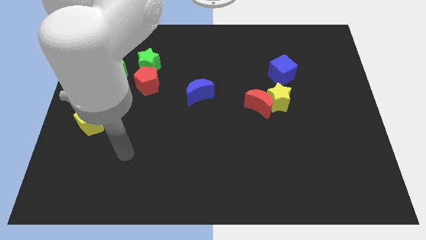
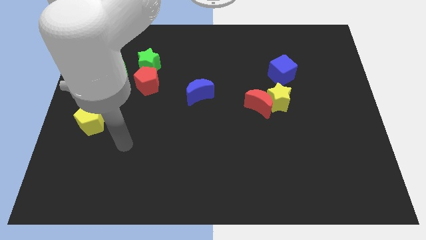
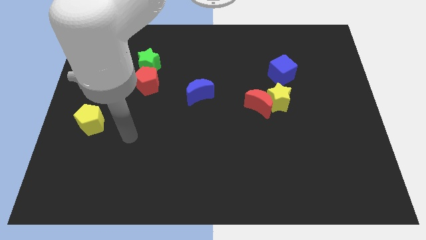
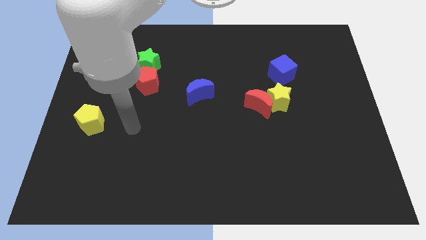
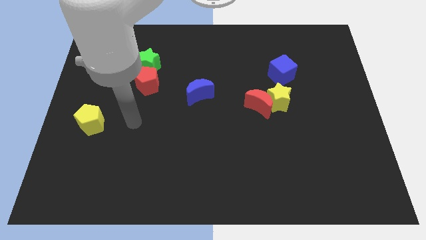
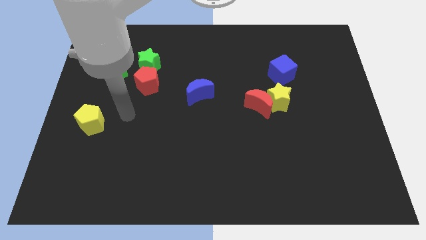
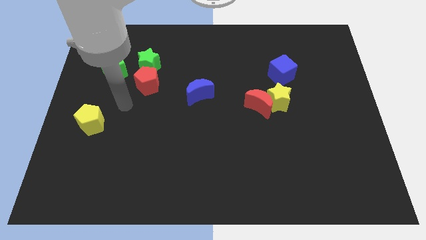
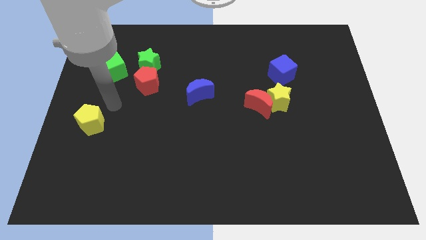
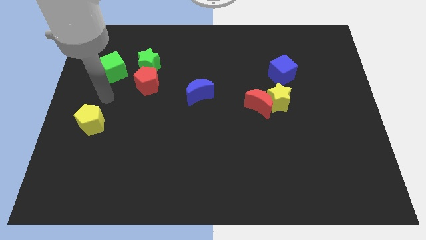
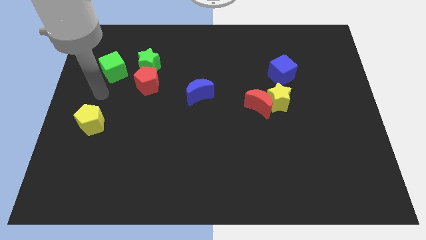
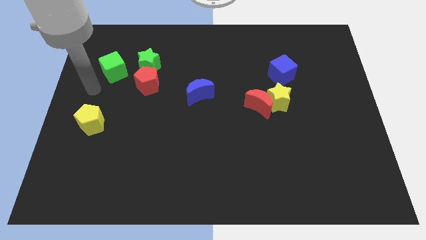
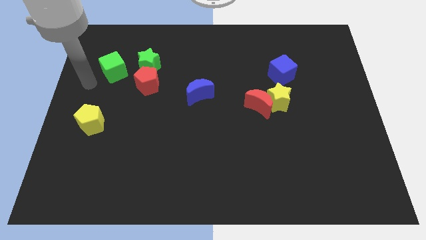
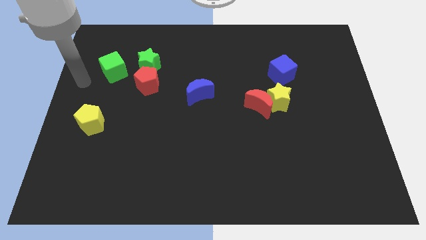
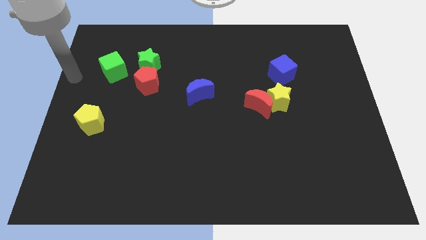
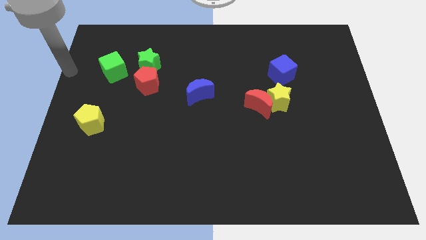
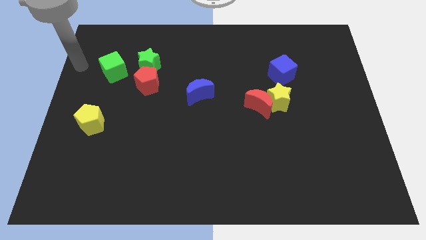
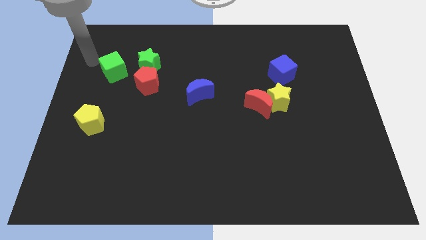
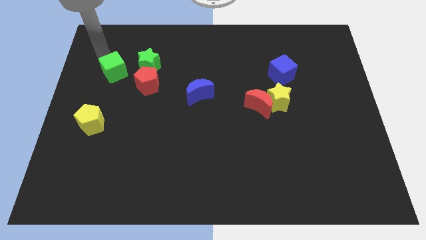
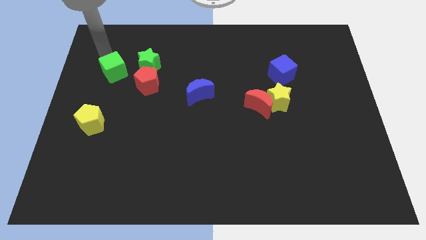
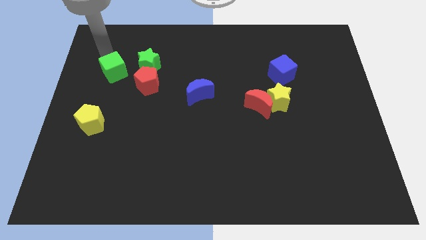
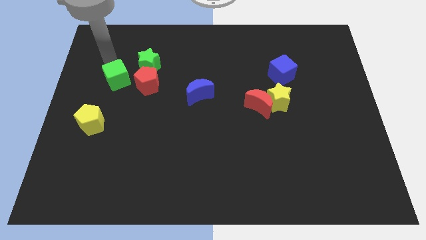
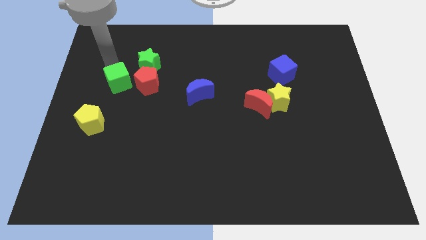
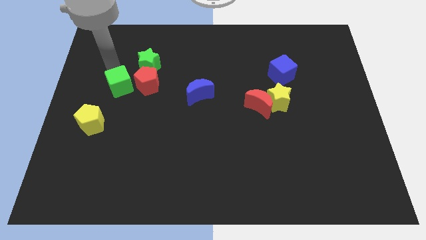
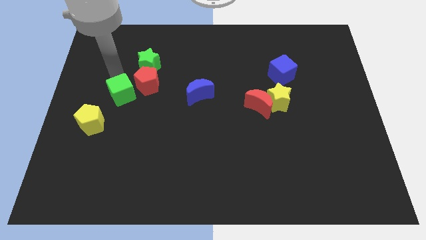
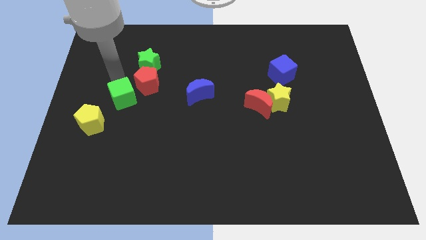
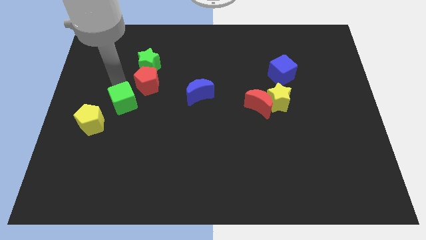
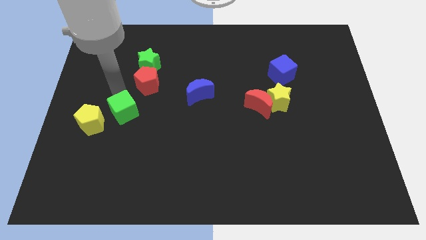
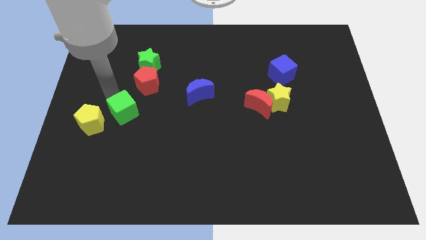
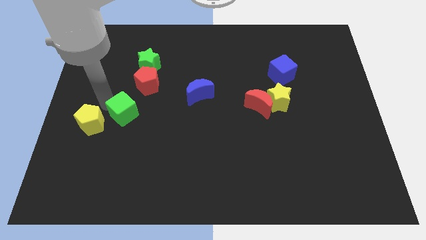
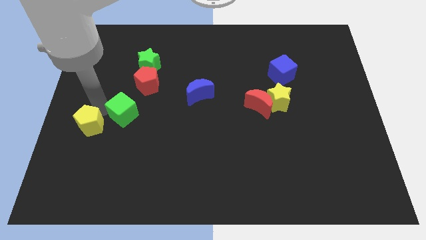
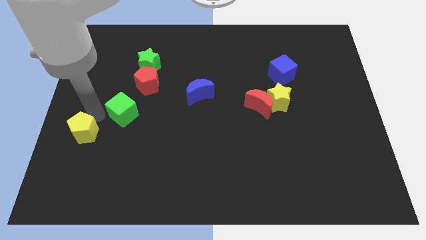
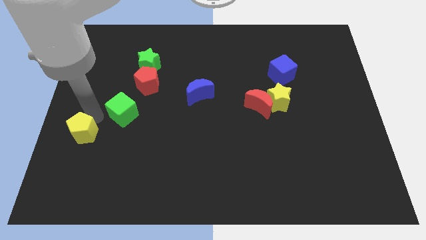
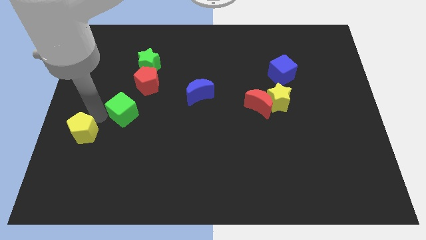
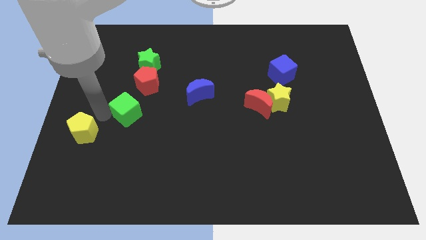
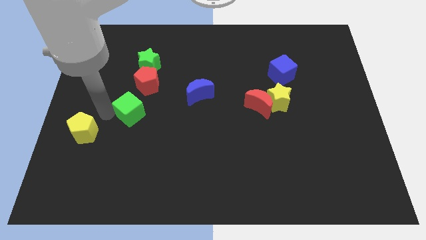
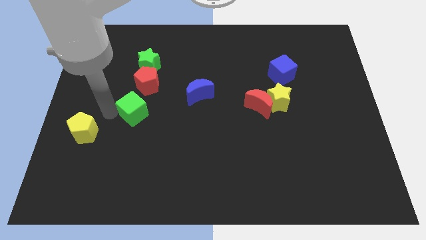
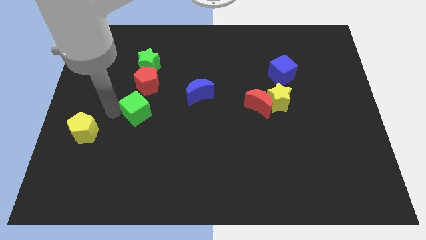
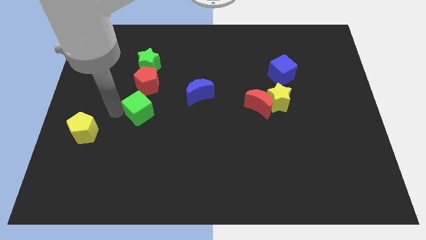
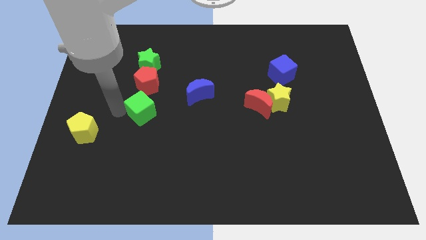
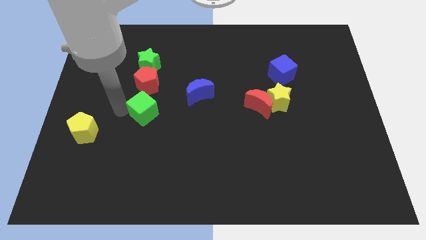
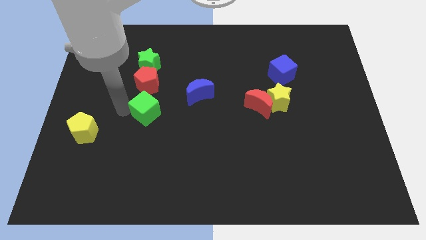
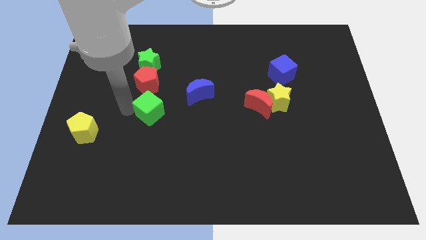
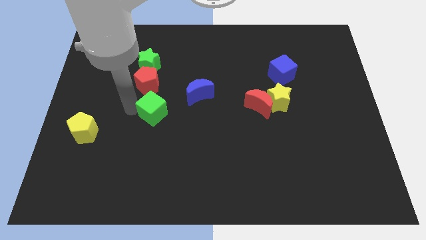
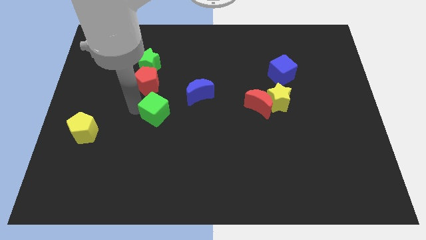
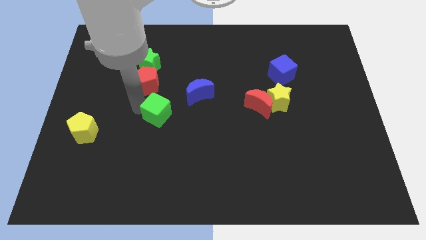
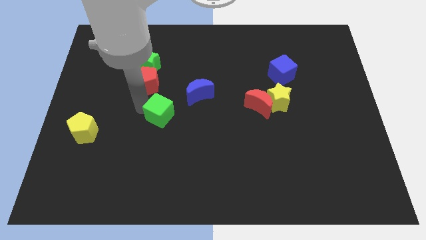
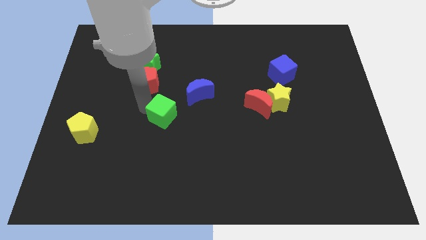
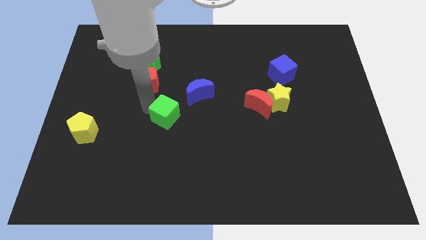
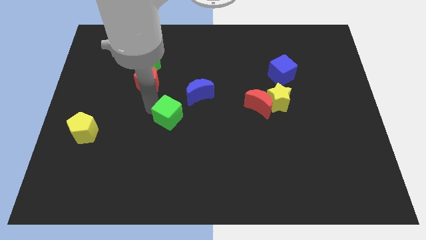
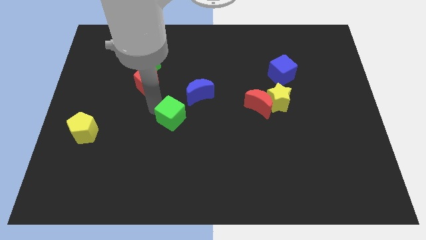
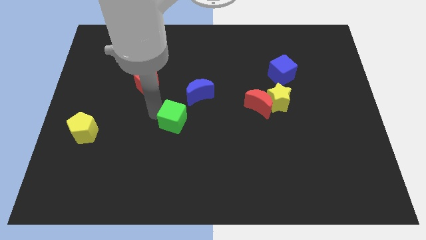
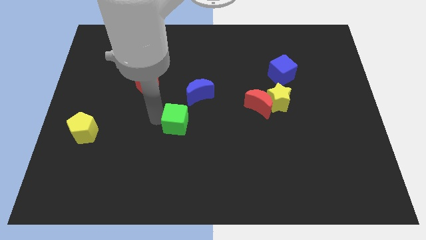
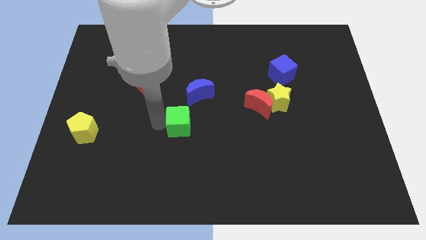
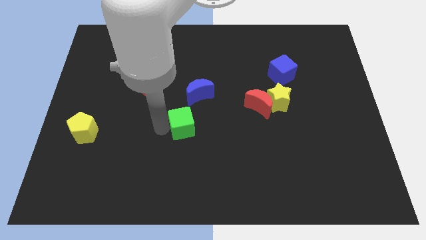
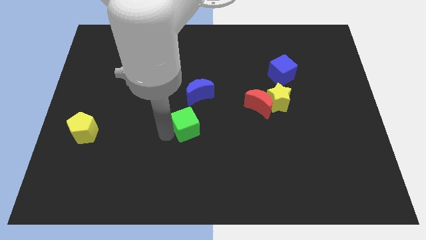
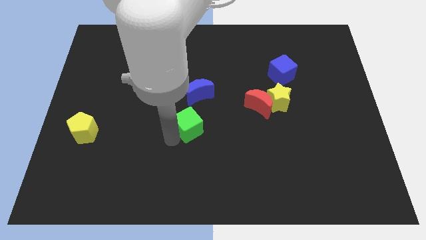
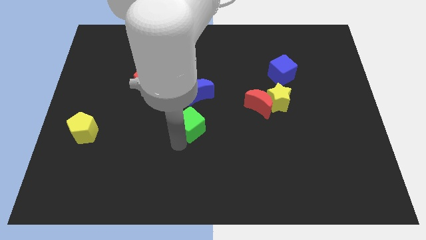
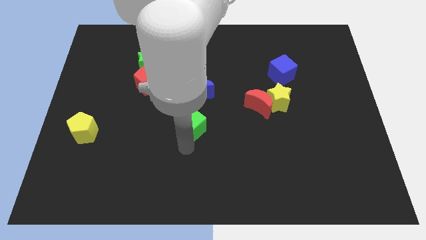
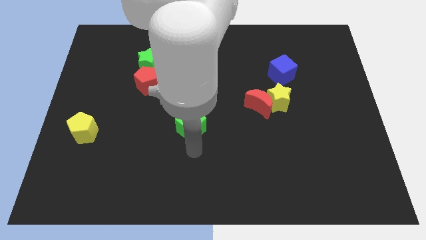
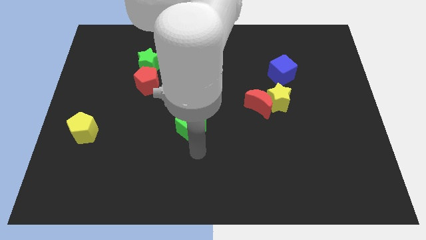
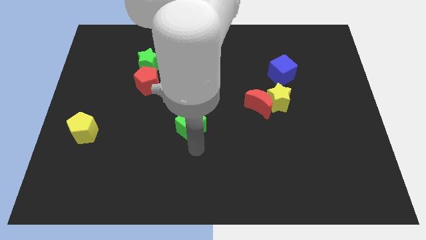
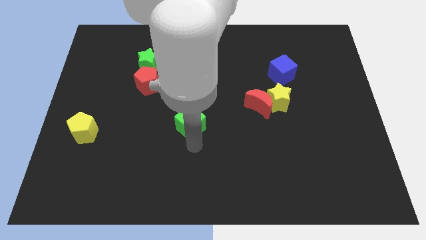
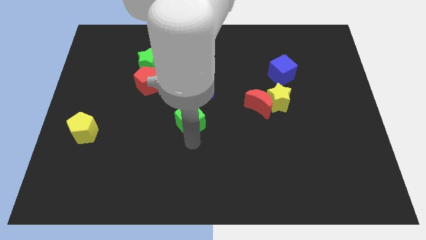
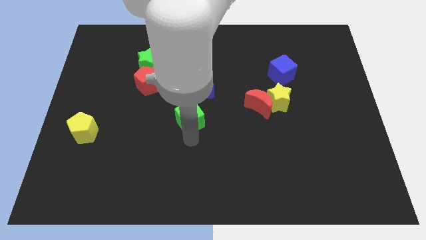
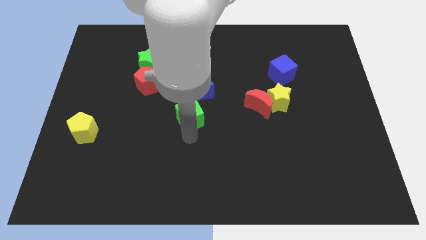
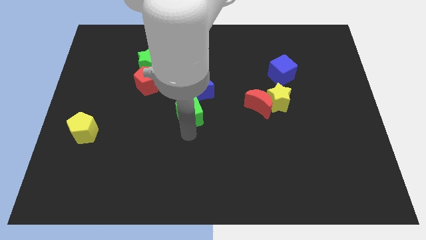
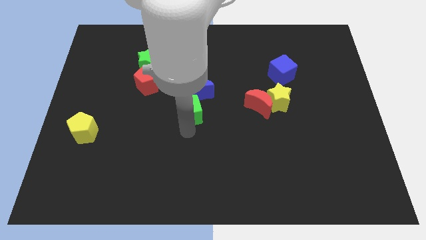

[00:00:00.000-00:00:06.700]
move the green cube close to the blue moon

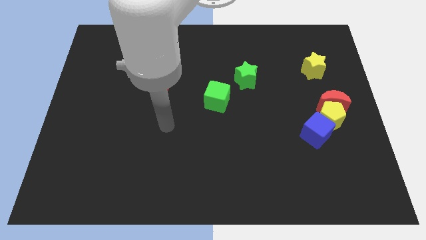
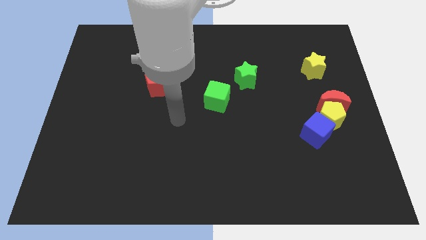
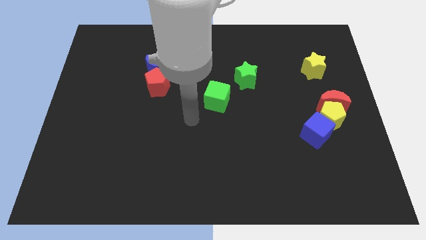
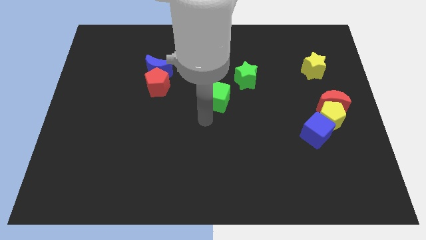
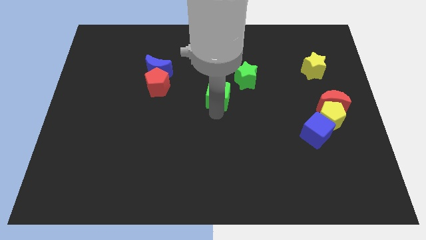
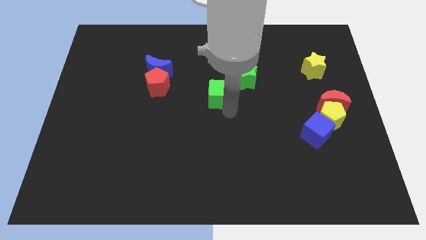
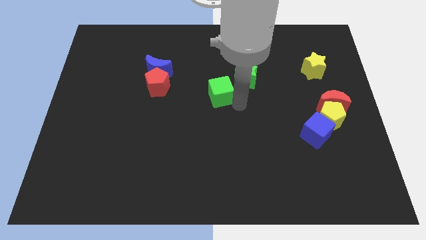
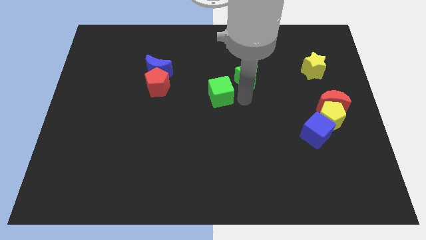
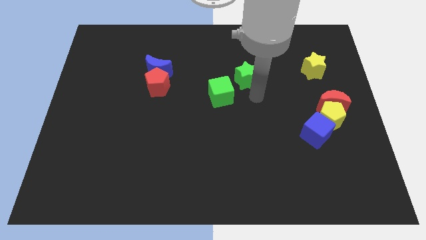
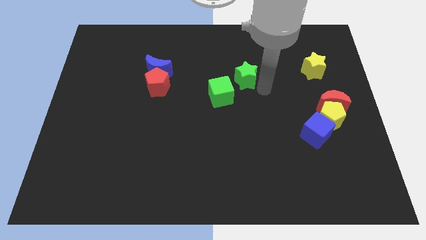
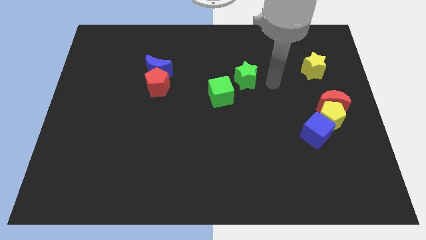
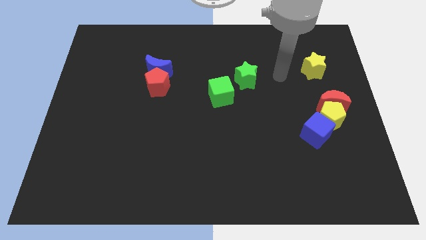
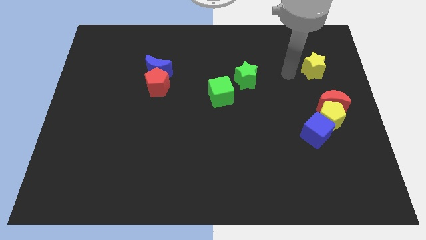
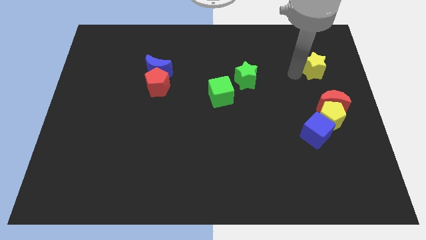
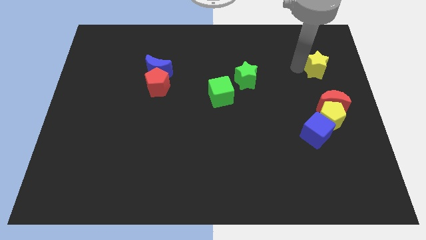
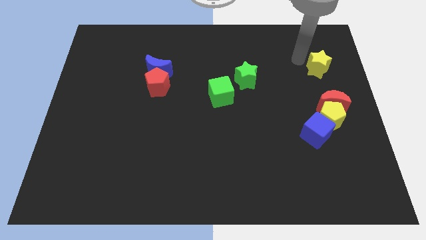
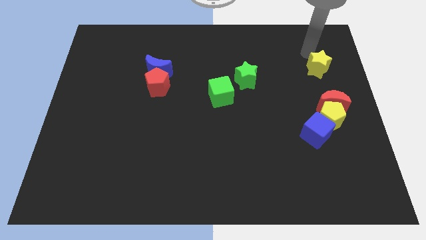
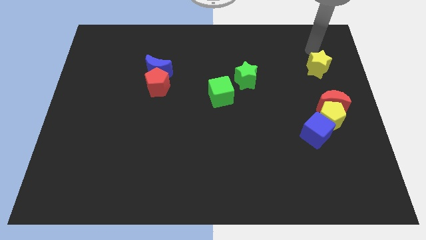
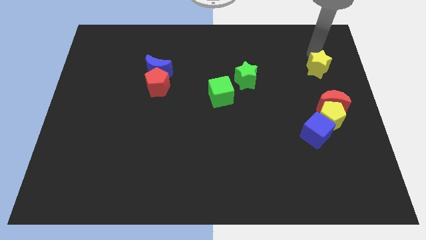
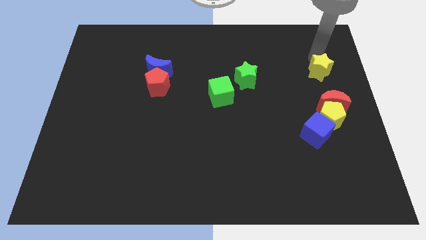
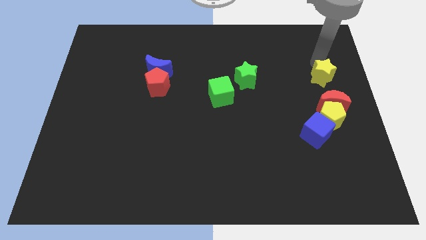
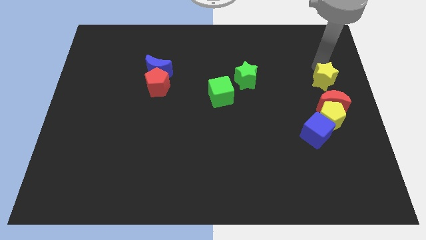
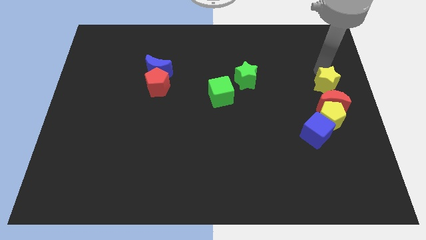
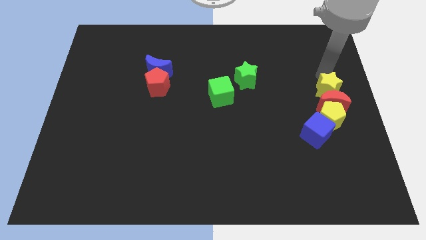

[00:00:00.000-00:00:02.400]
move the yellow star next to the red moon
